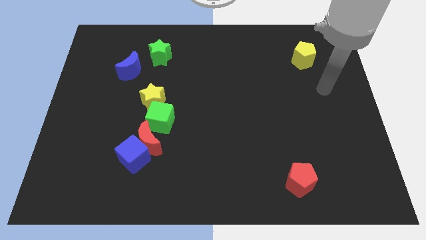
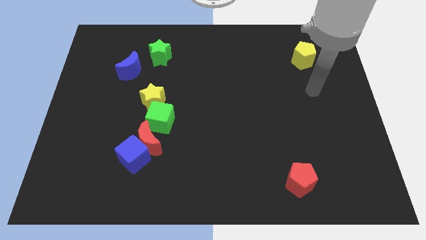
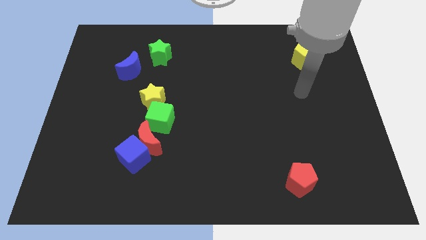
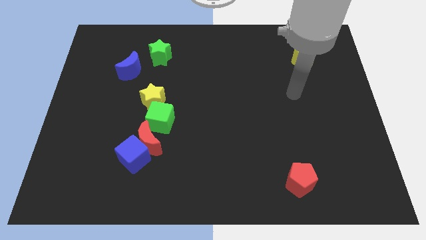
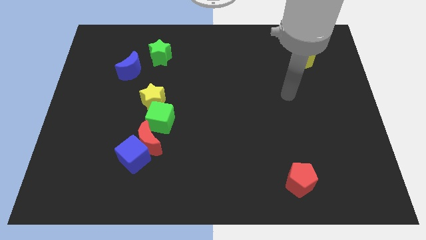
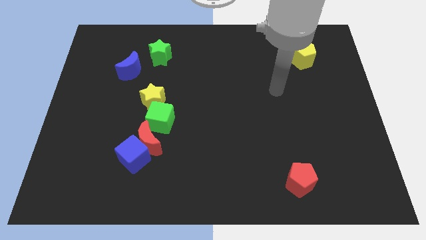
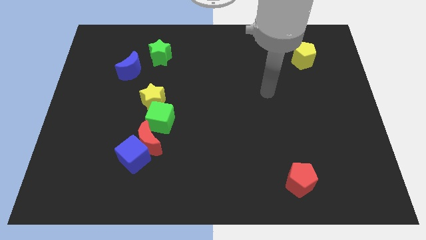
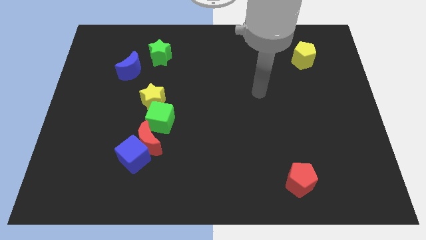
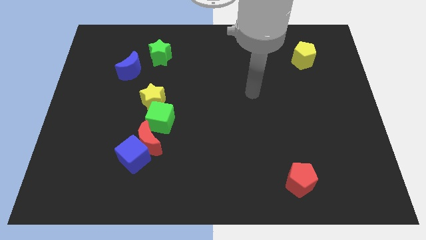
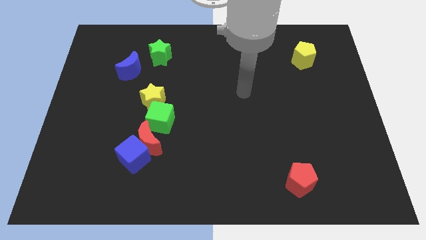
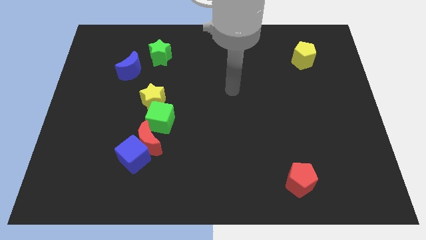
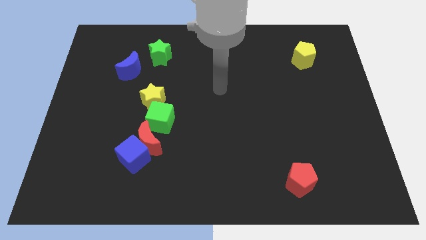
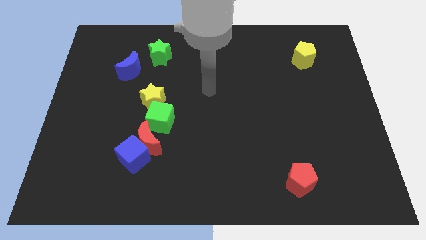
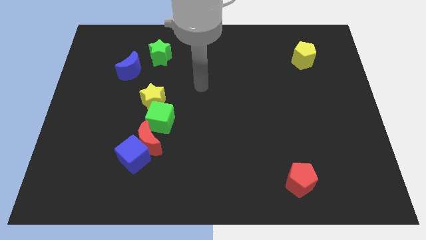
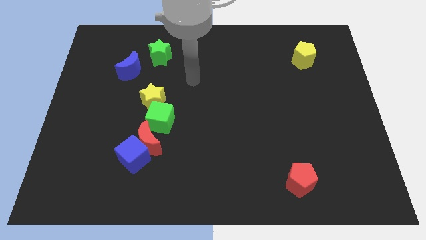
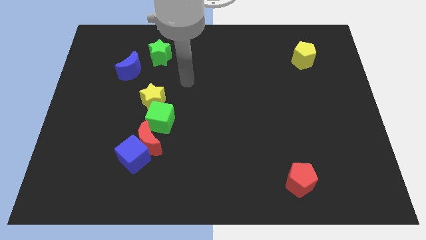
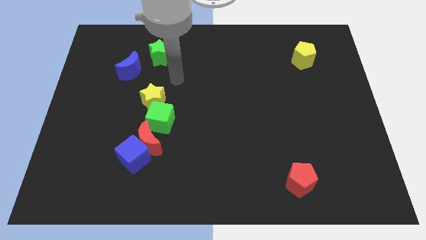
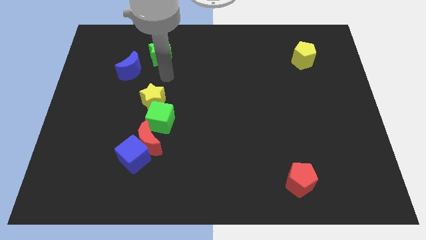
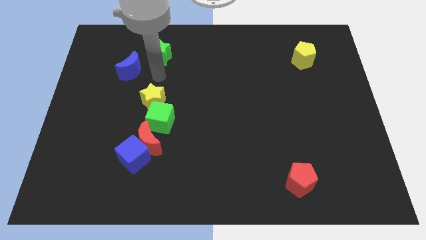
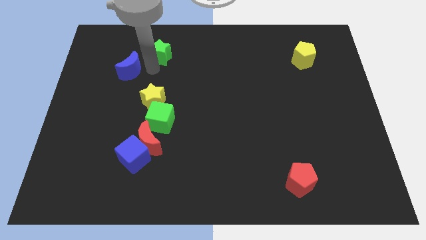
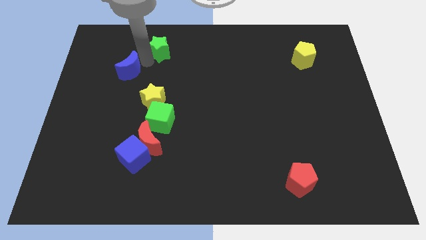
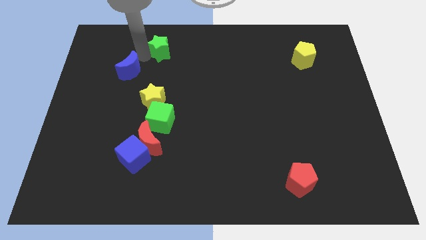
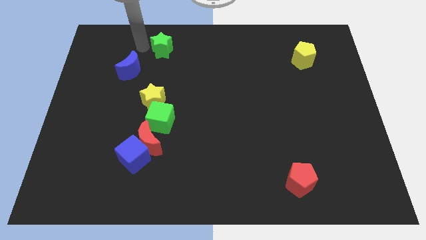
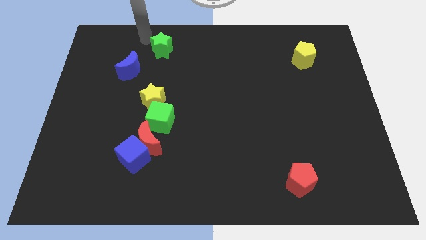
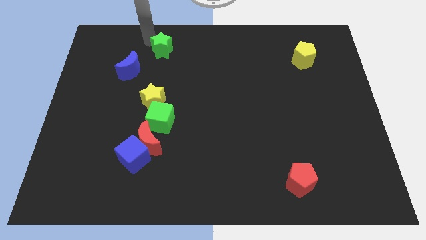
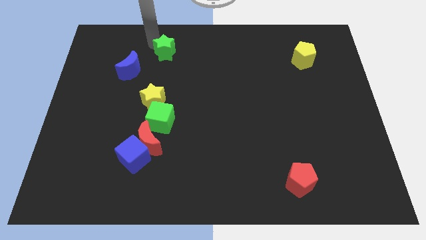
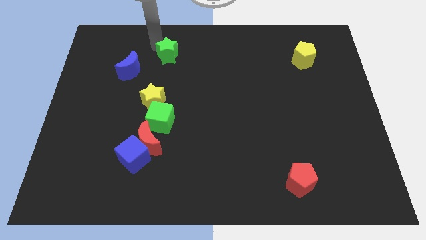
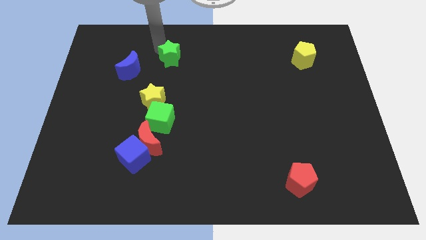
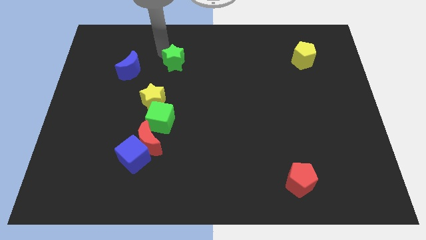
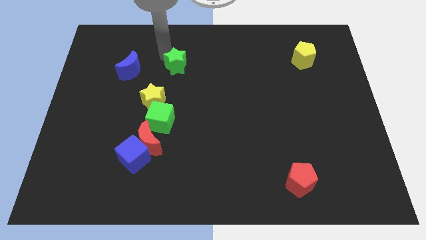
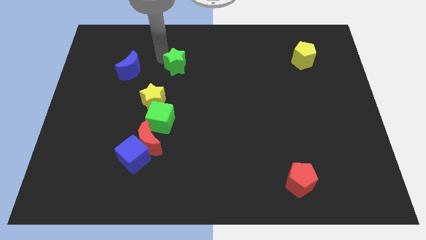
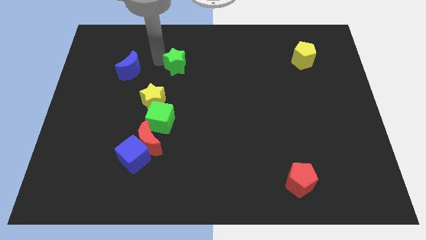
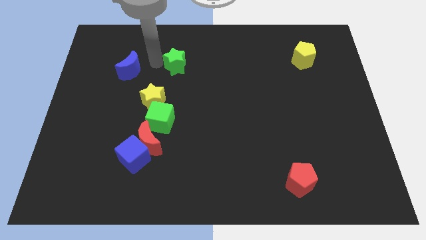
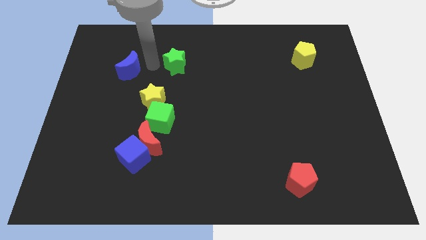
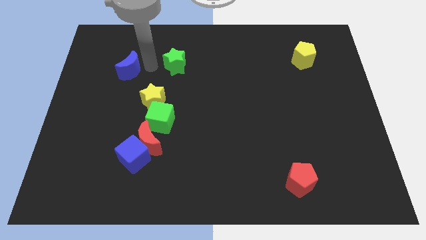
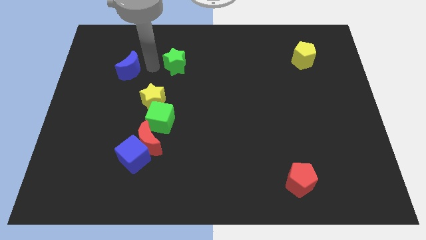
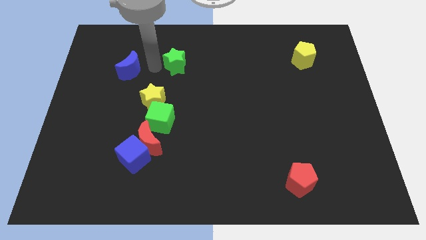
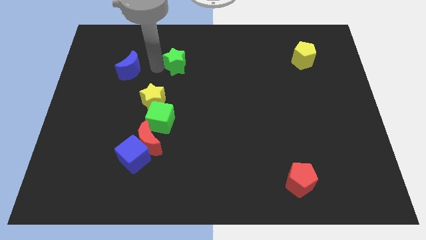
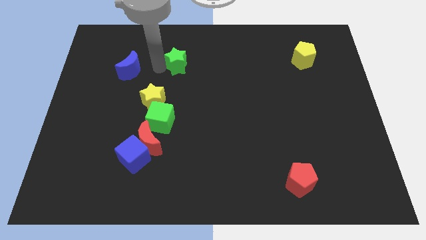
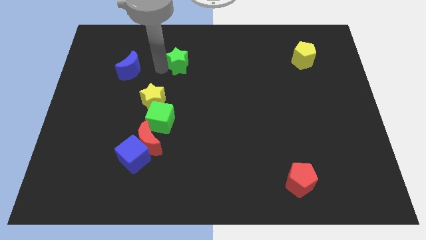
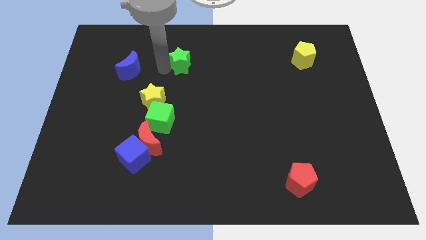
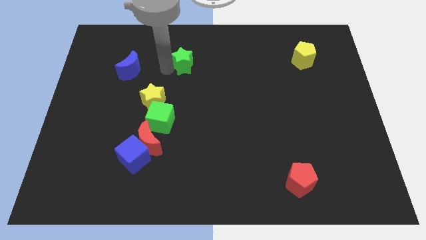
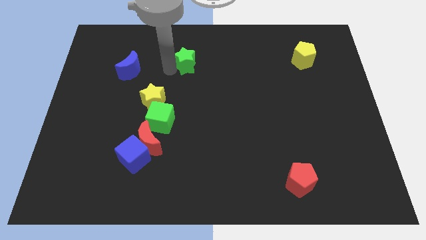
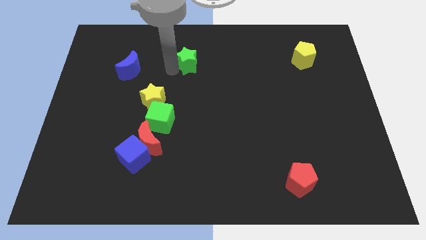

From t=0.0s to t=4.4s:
push the green star a little to the right

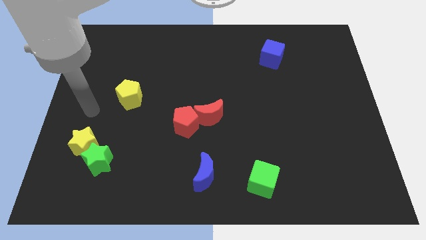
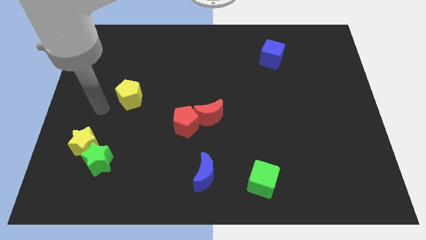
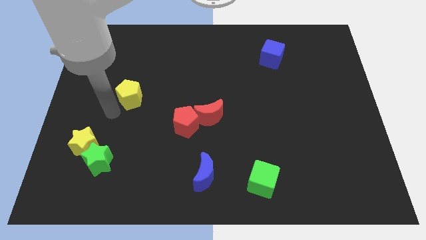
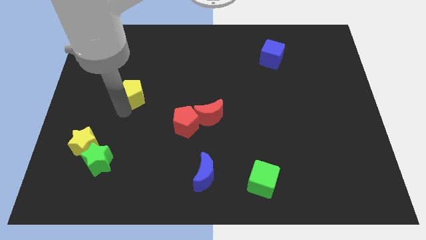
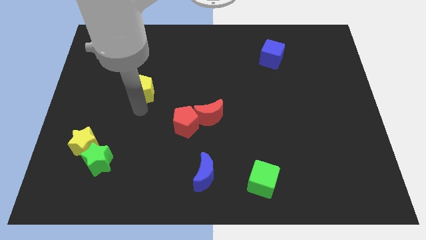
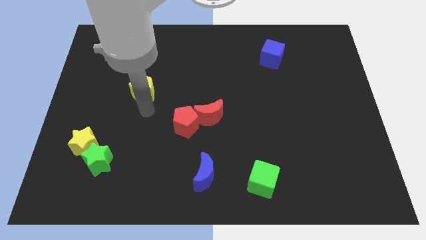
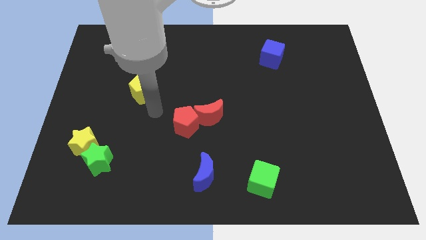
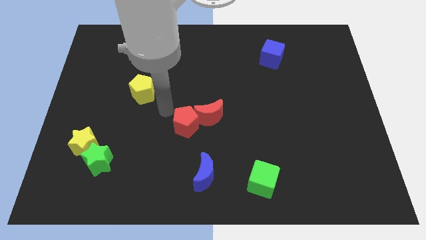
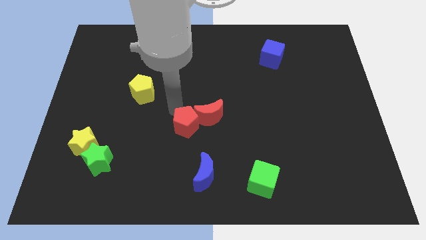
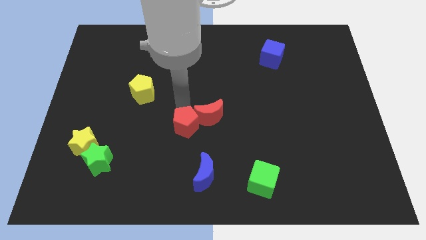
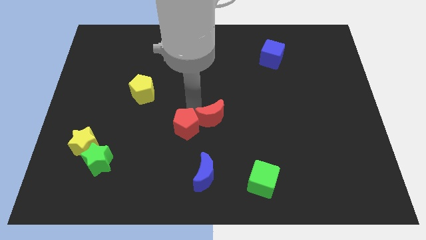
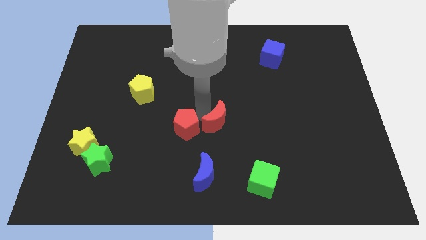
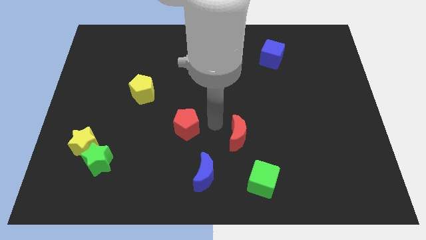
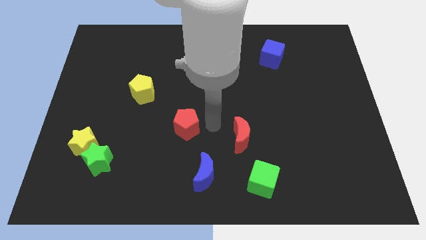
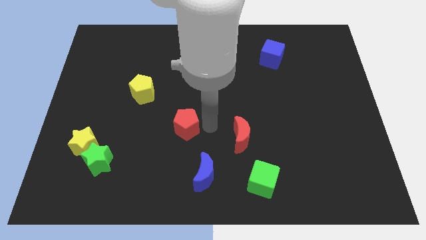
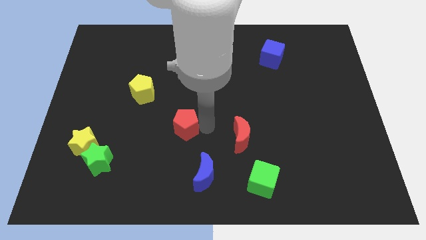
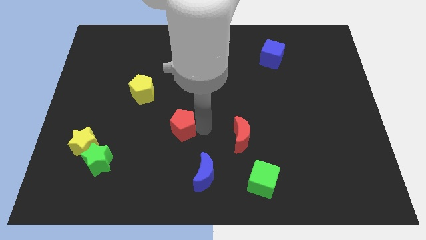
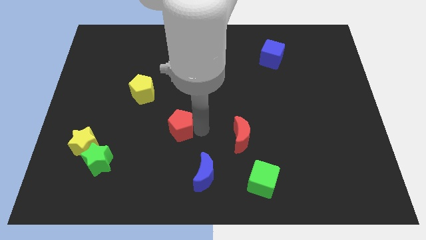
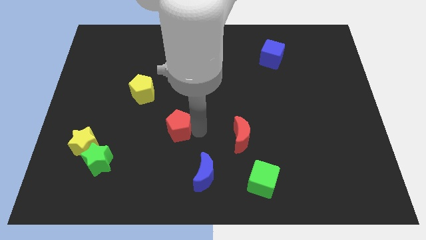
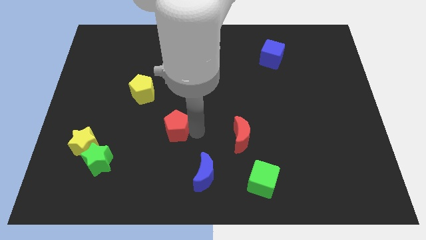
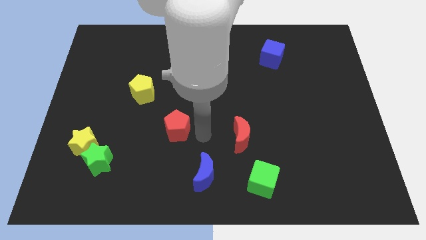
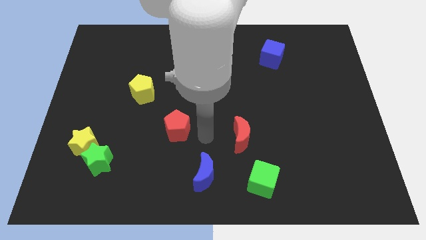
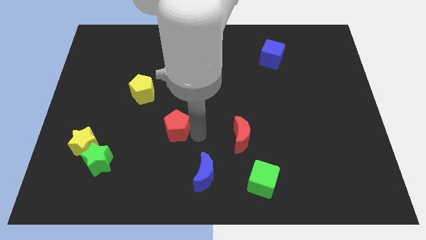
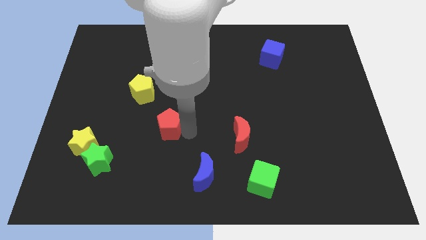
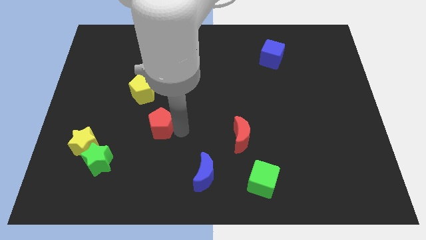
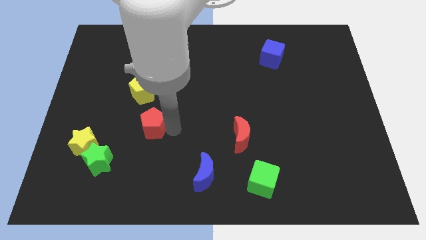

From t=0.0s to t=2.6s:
slightly push the red pentagon left

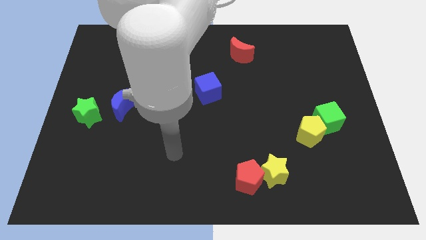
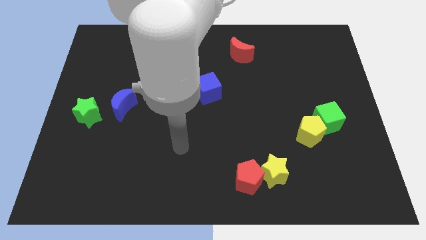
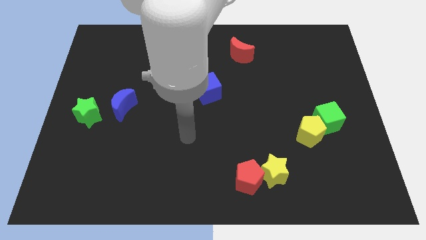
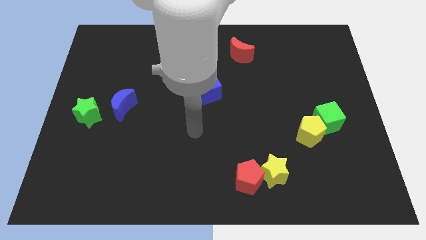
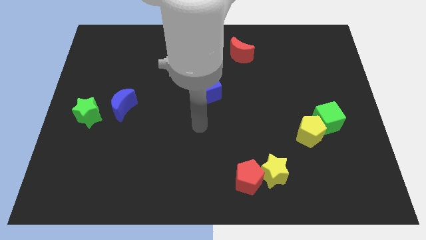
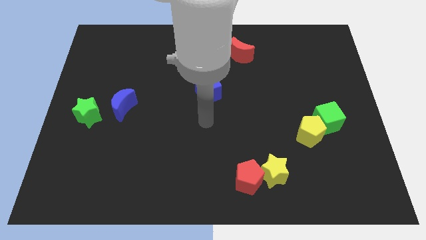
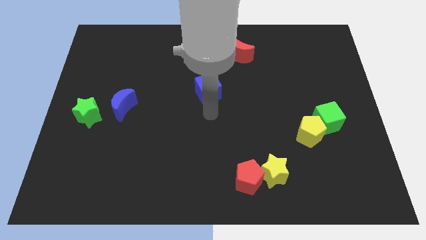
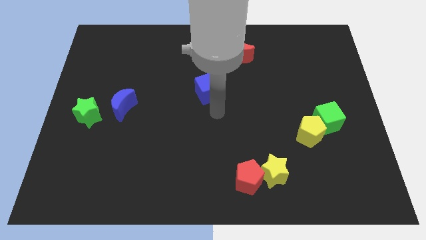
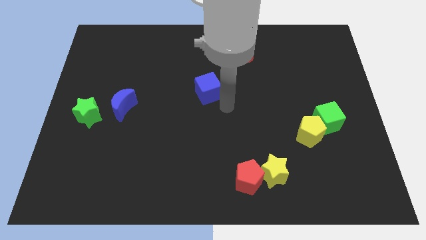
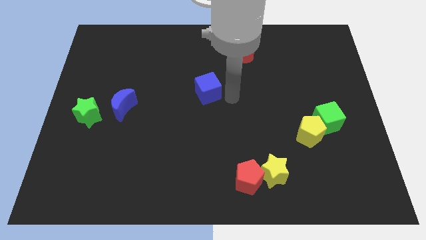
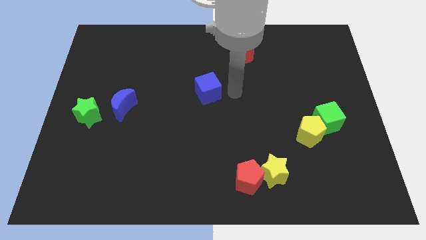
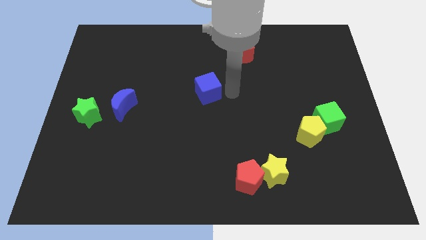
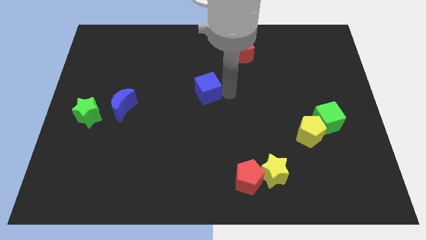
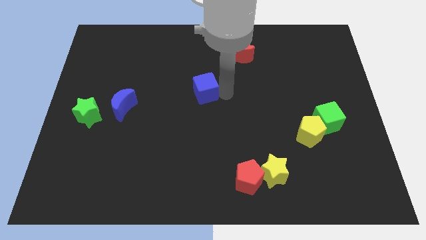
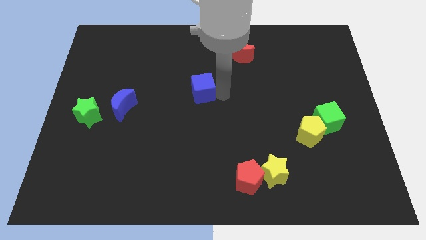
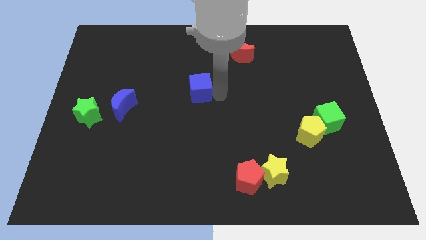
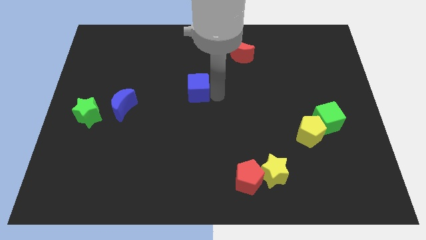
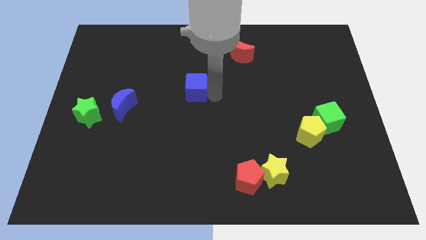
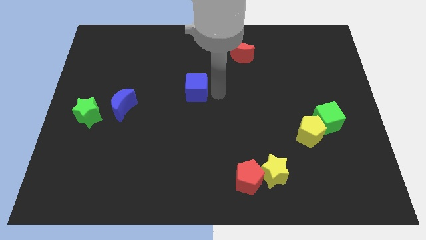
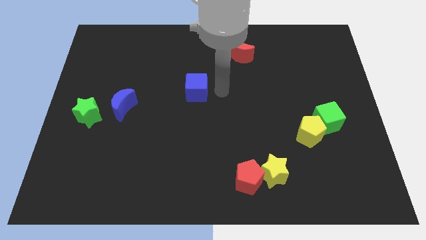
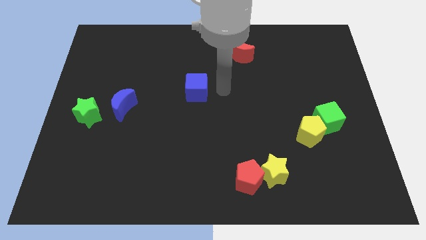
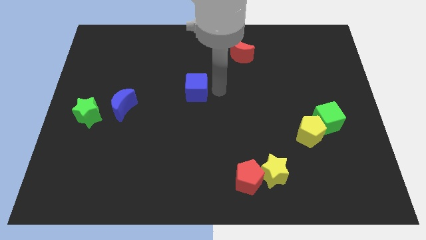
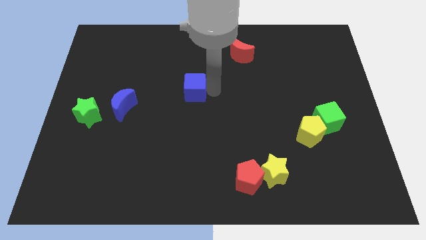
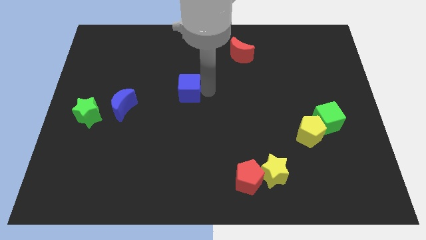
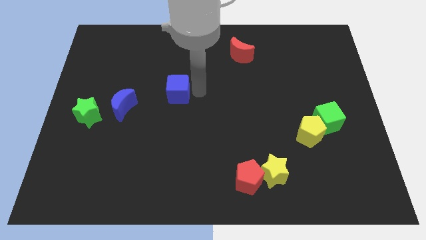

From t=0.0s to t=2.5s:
move the blue cube somewhat to the left
